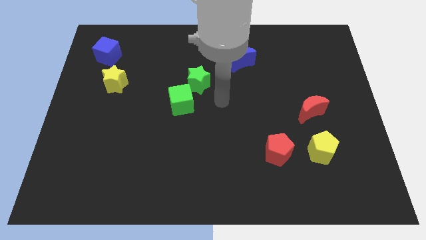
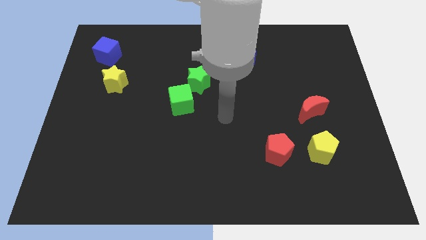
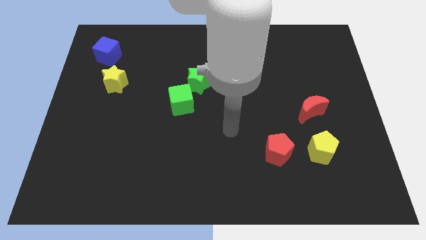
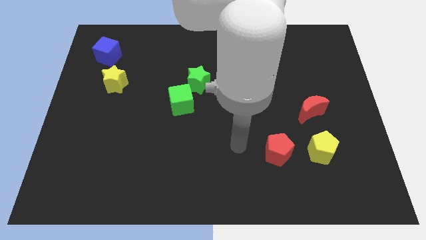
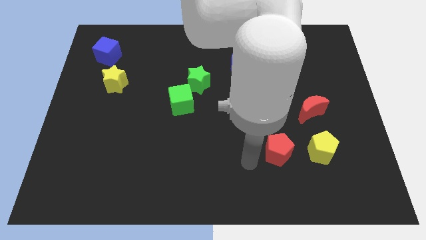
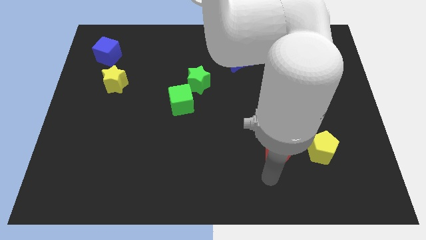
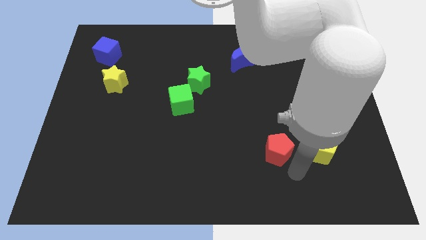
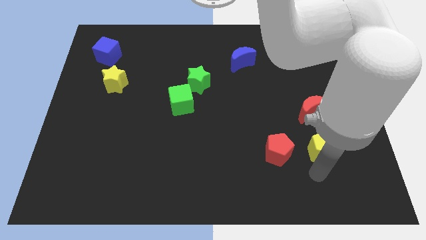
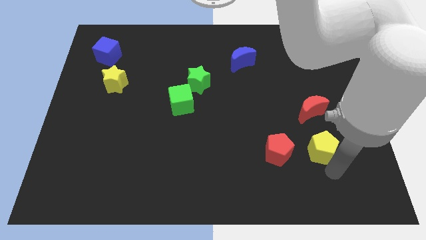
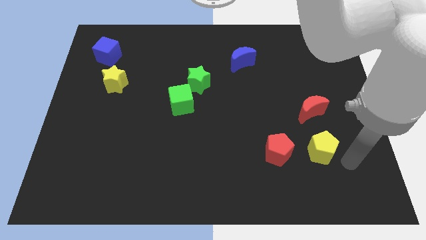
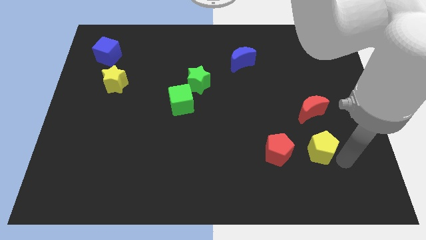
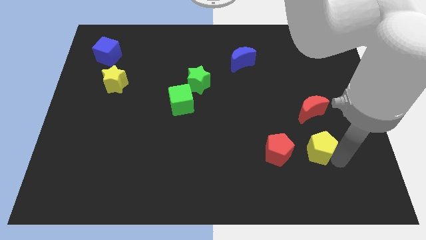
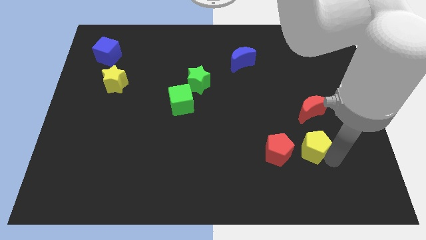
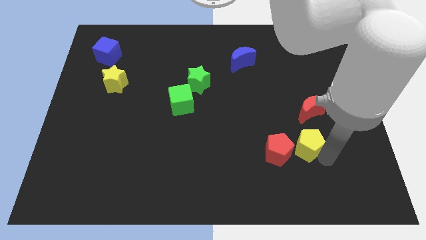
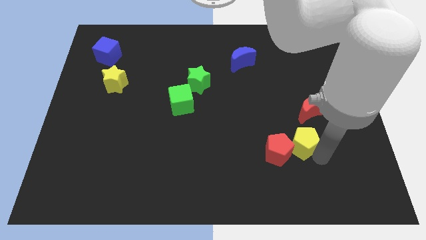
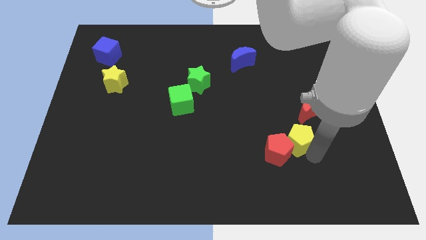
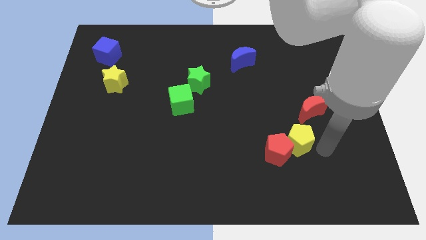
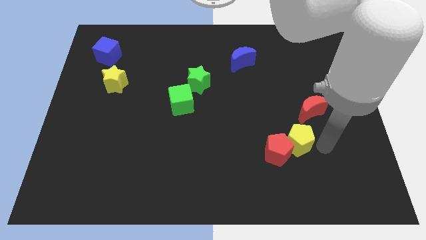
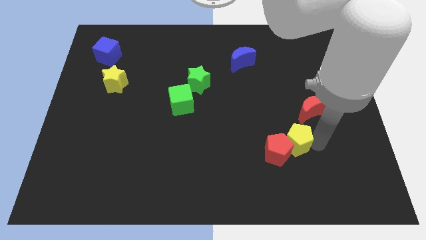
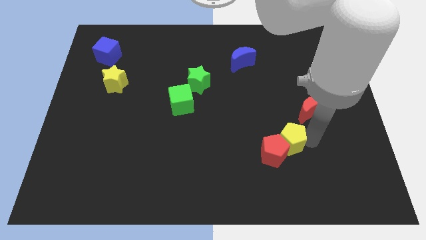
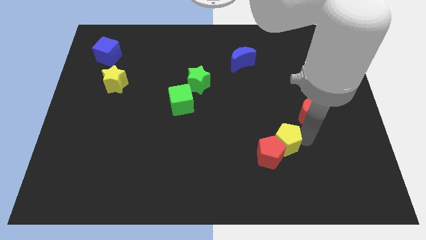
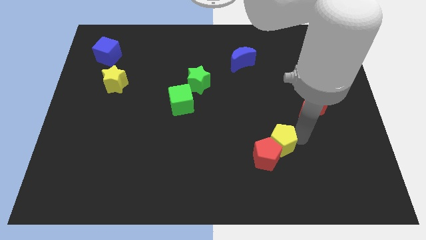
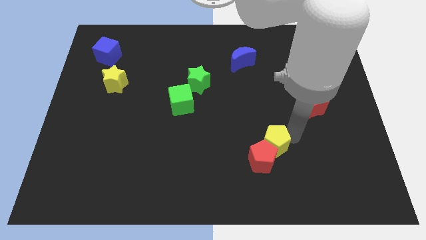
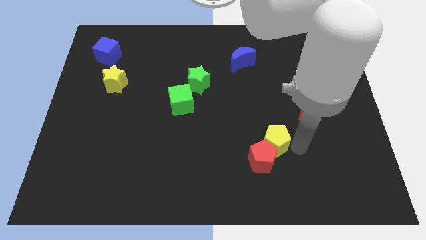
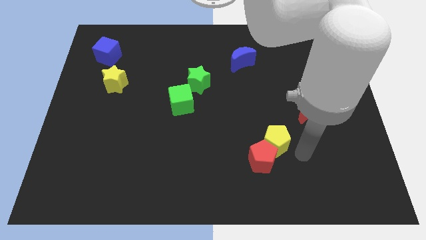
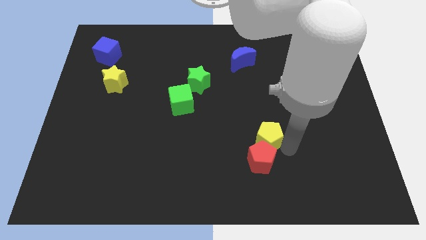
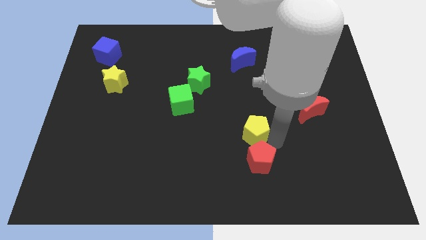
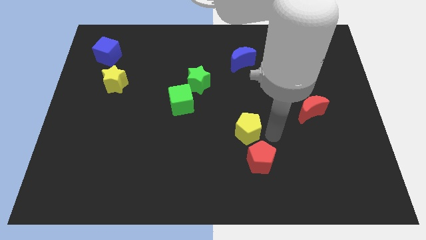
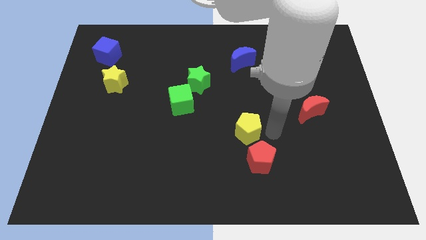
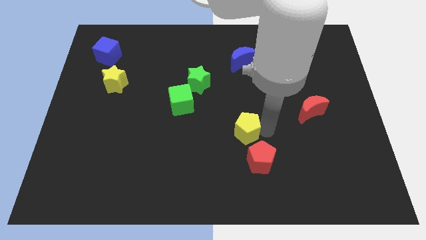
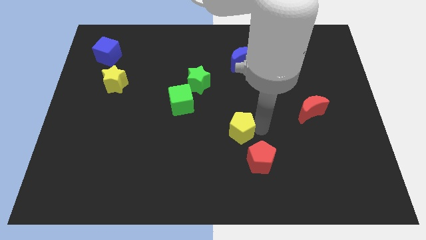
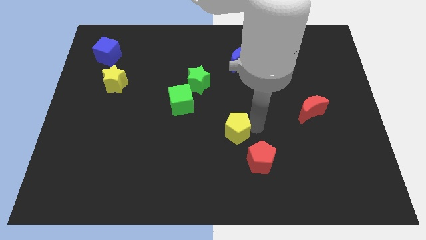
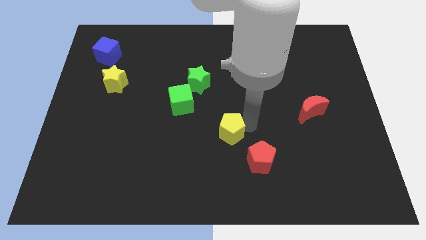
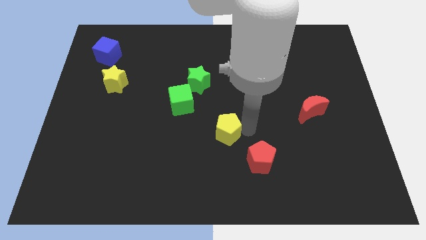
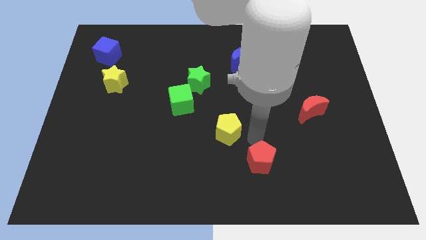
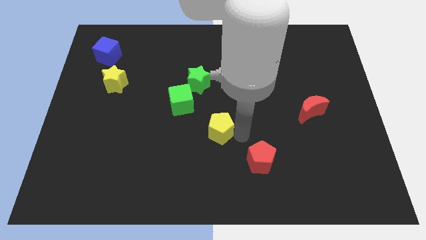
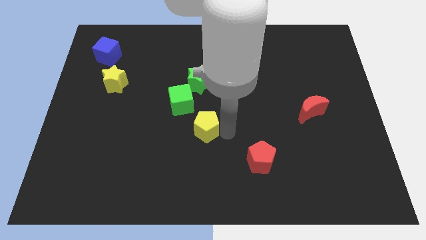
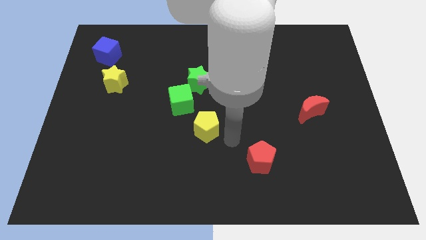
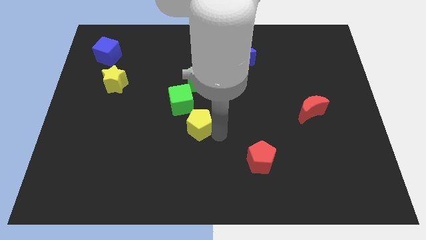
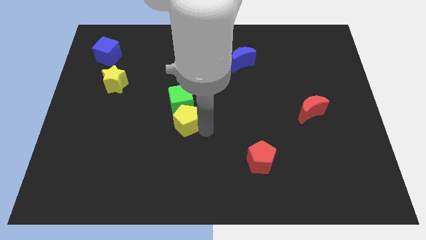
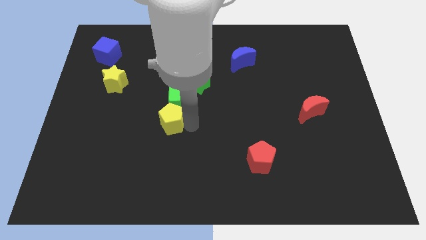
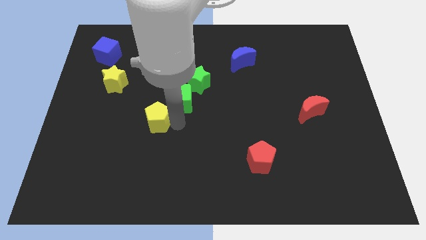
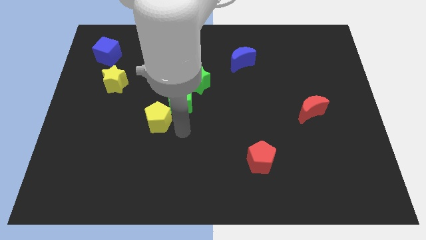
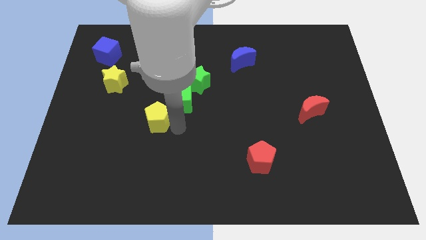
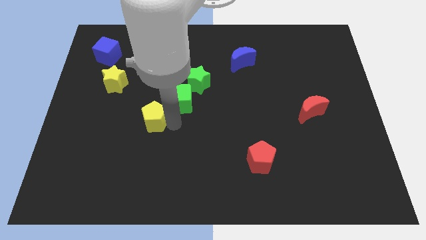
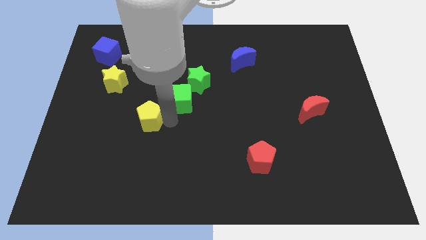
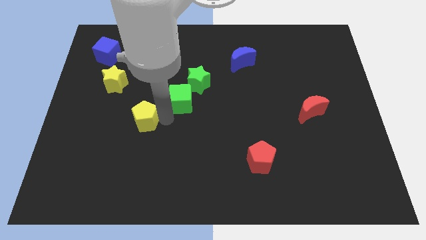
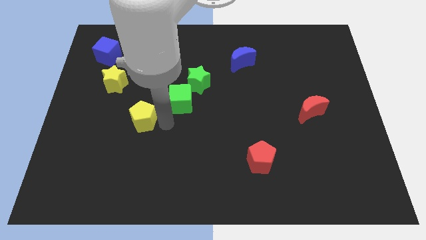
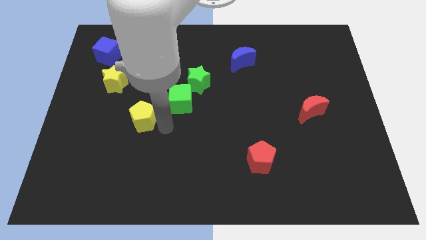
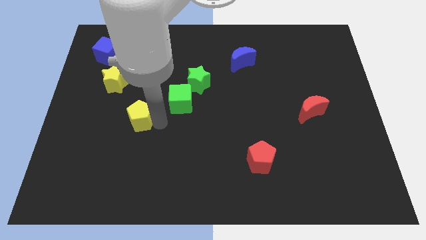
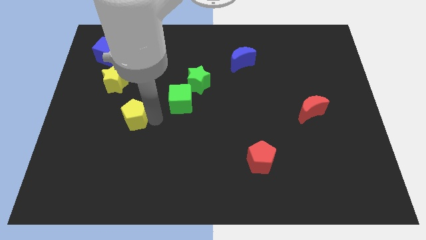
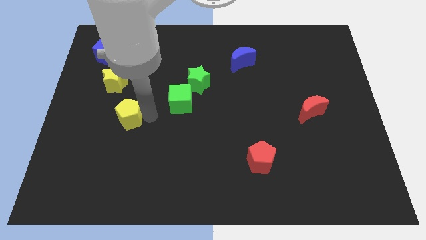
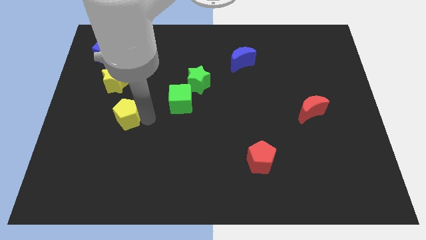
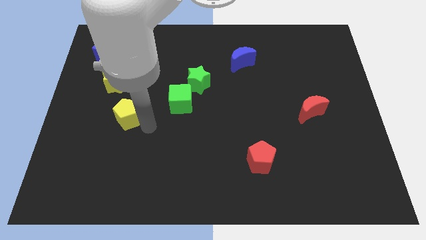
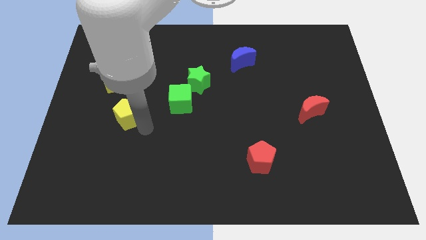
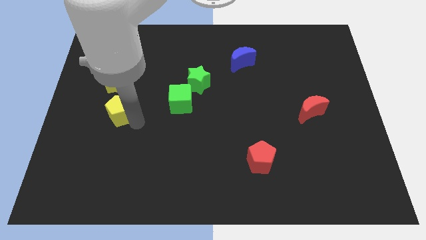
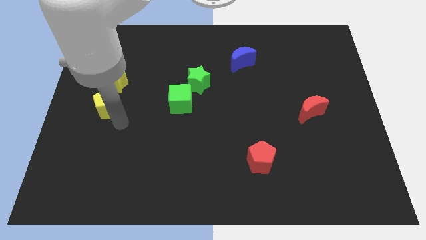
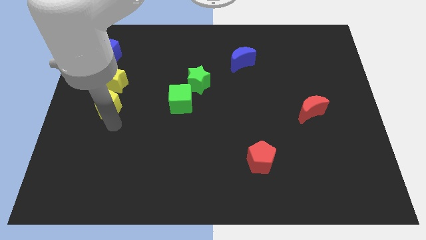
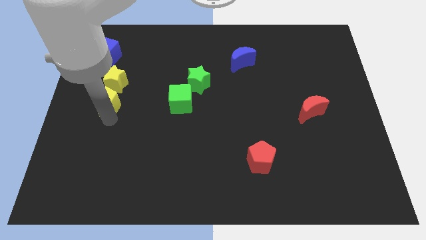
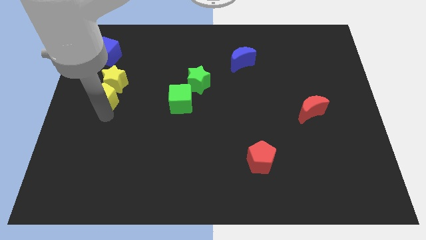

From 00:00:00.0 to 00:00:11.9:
put the yellow pentagon below the blue cube

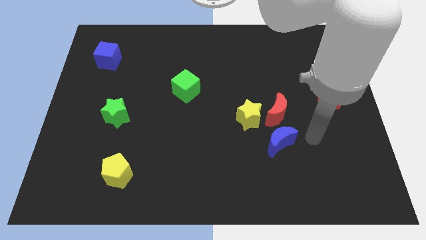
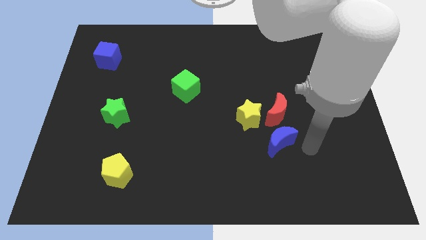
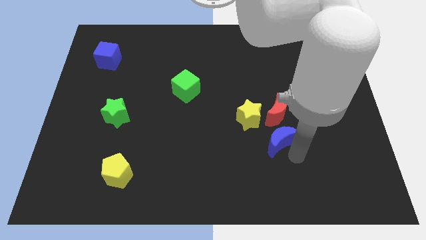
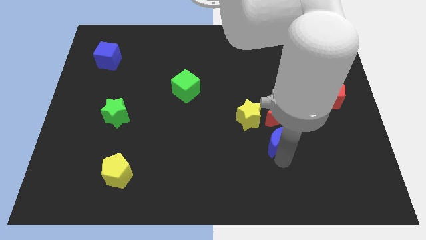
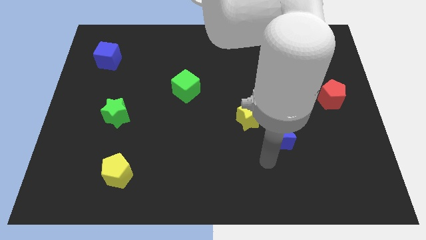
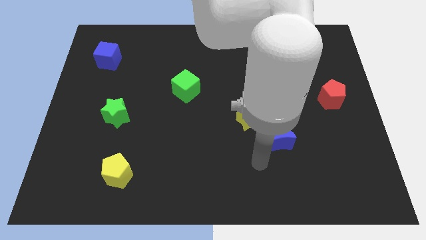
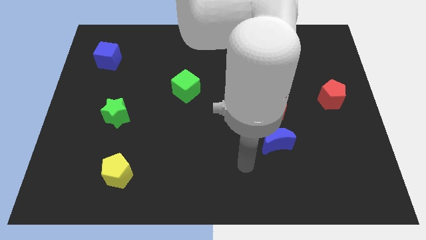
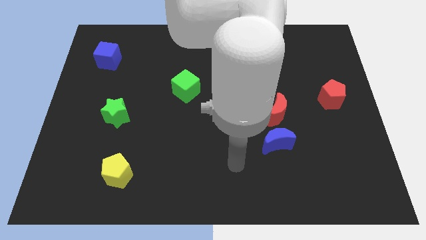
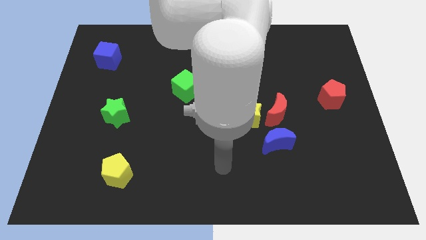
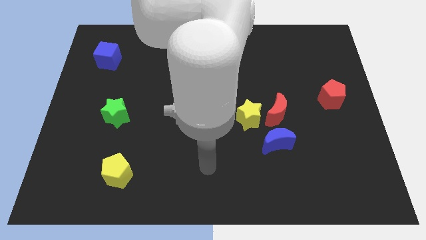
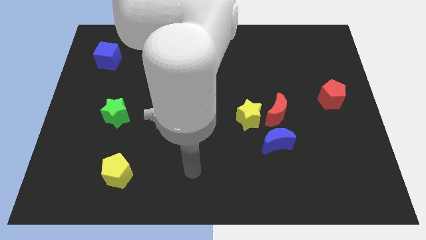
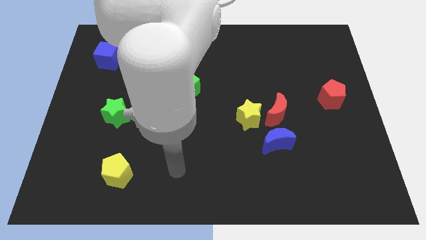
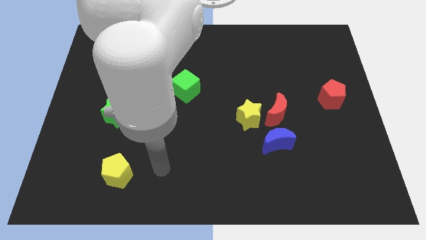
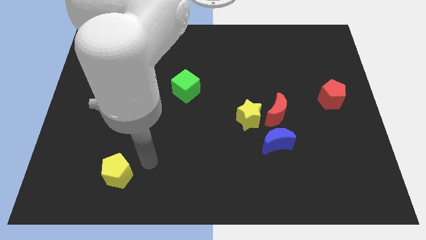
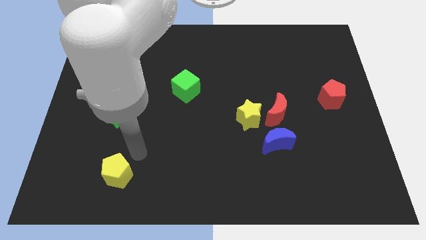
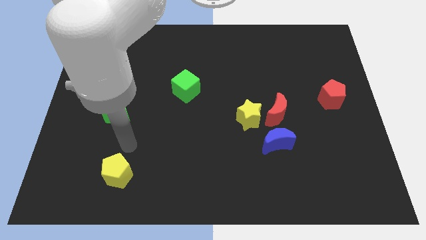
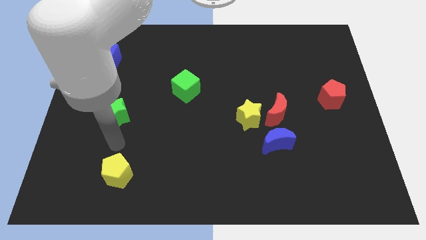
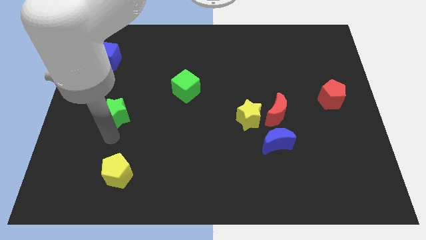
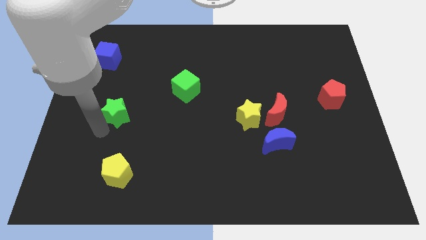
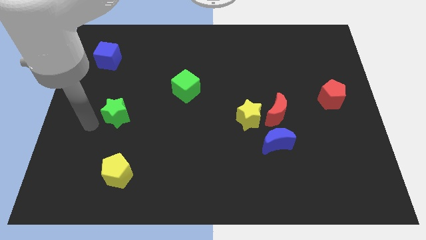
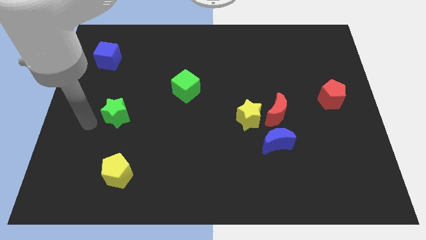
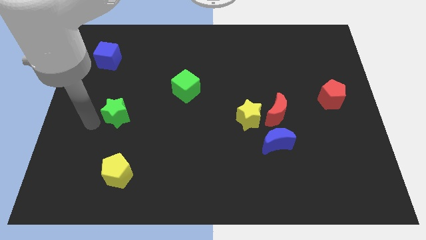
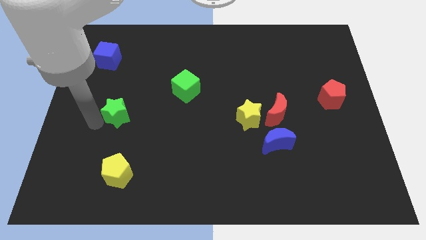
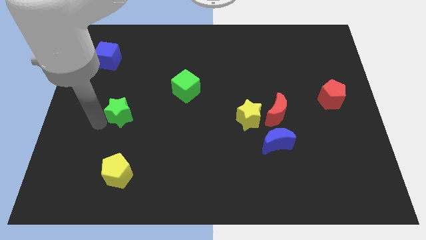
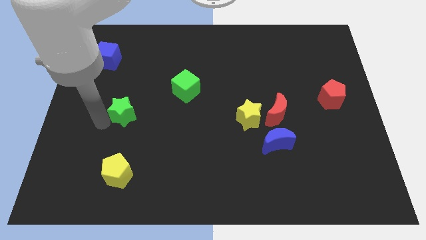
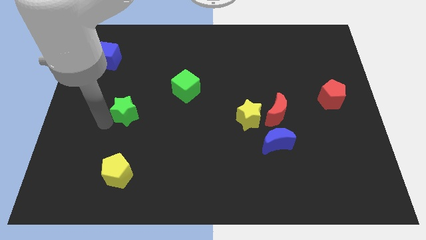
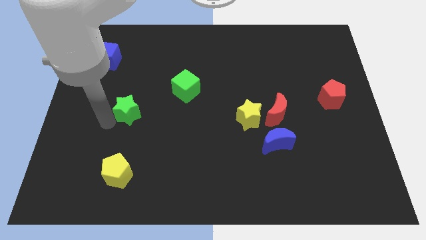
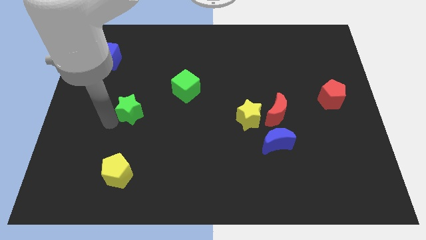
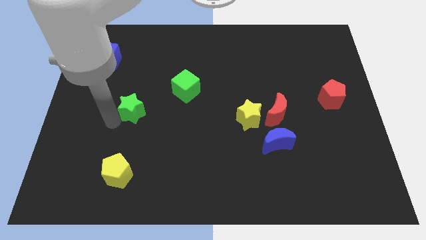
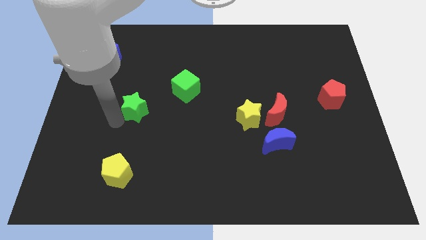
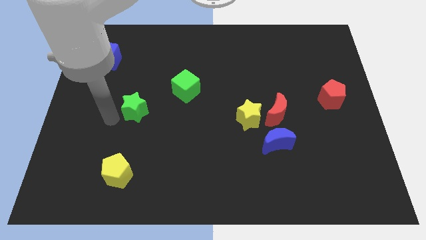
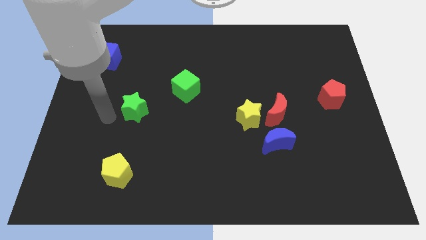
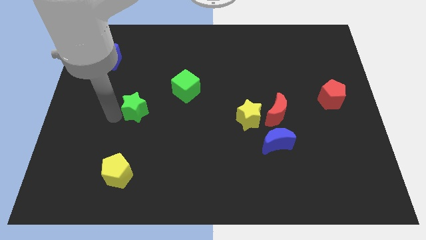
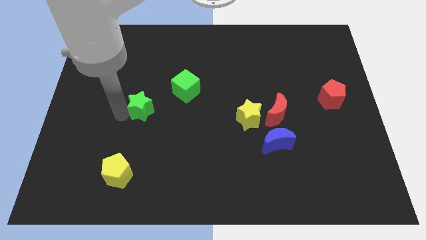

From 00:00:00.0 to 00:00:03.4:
slide the green star to the bottom left side of the green cube
